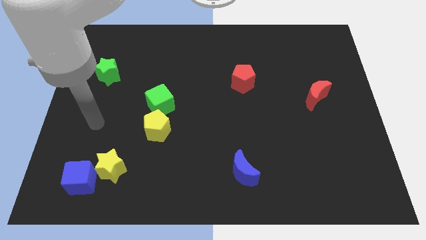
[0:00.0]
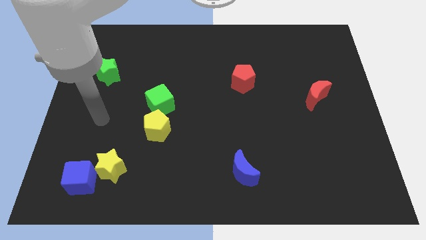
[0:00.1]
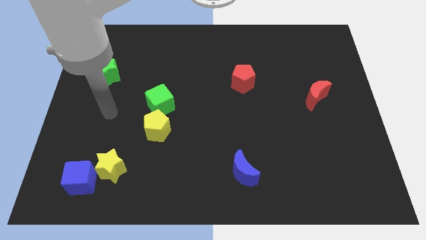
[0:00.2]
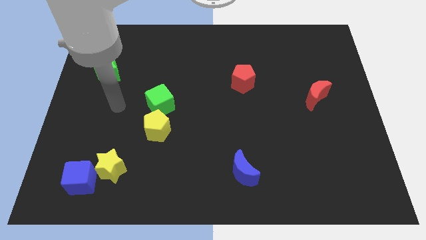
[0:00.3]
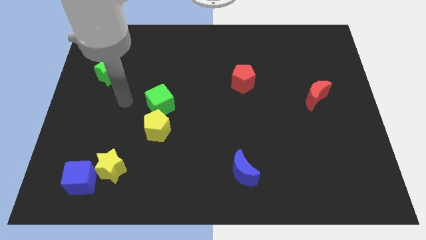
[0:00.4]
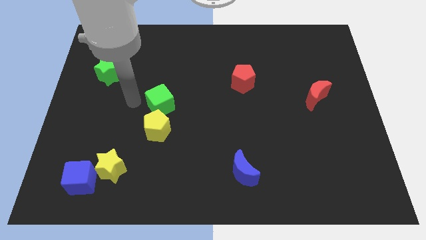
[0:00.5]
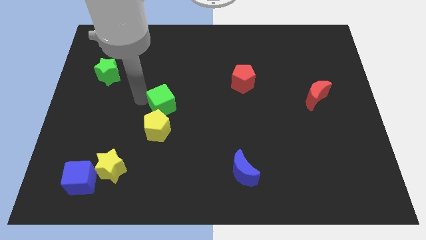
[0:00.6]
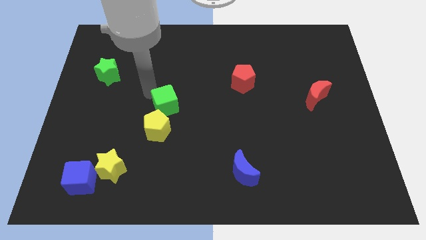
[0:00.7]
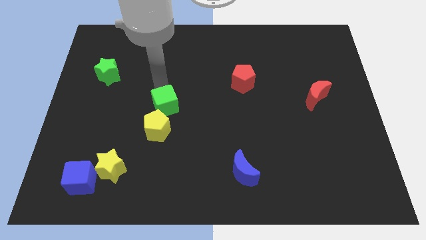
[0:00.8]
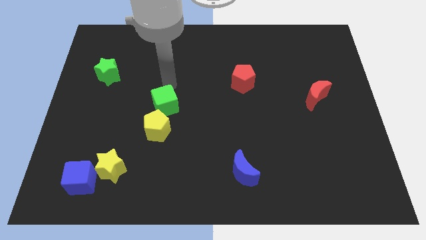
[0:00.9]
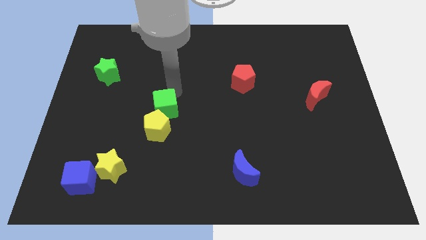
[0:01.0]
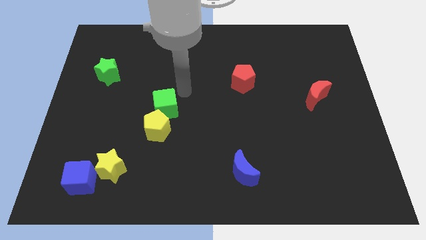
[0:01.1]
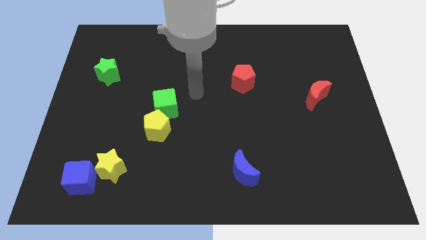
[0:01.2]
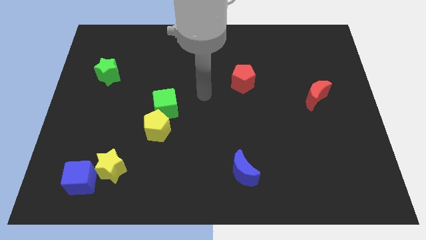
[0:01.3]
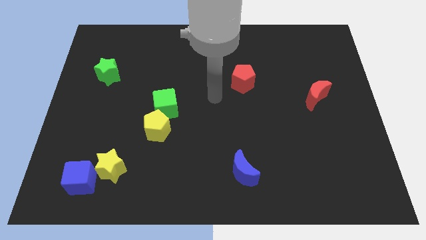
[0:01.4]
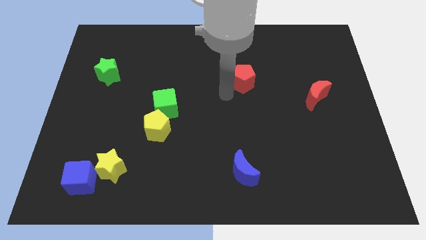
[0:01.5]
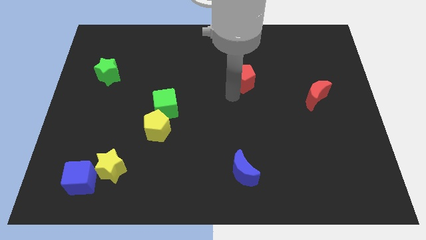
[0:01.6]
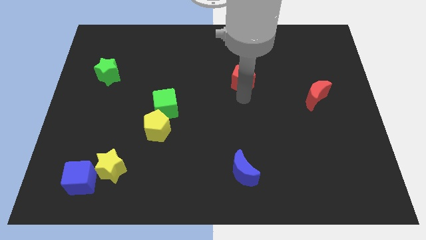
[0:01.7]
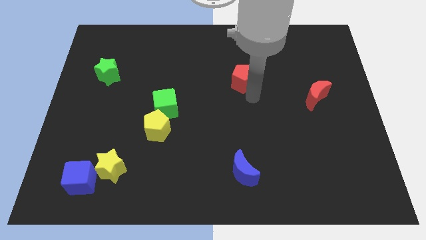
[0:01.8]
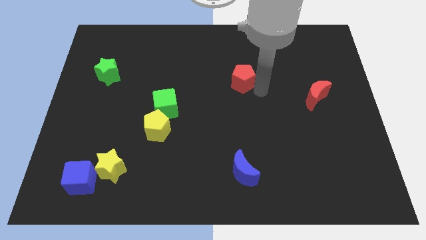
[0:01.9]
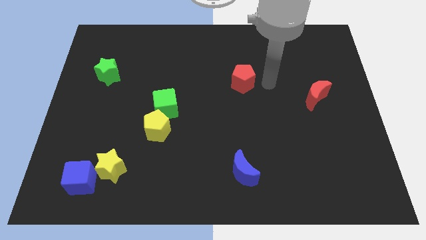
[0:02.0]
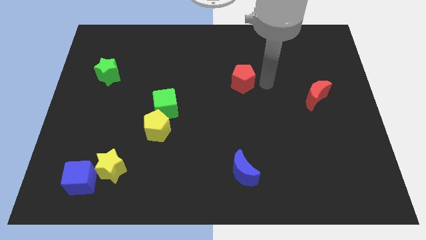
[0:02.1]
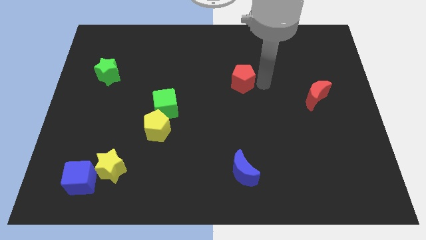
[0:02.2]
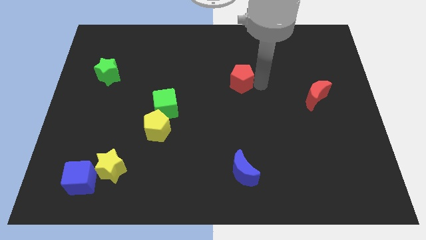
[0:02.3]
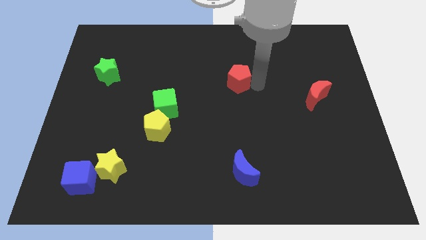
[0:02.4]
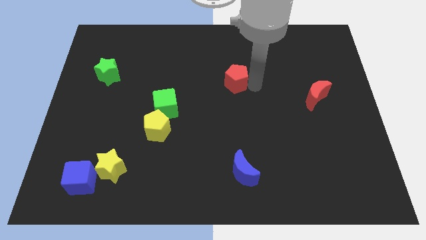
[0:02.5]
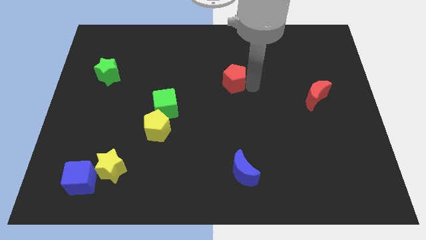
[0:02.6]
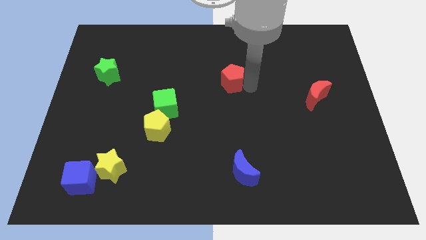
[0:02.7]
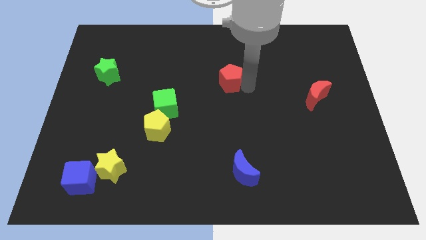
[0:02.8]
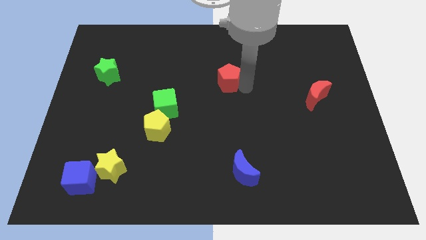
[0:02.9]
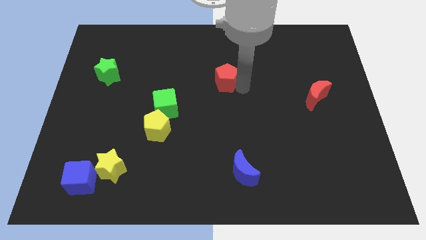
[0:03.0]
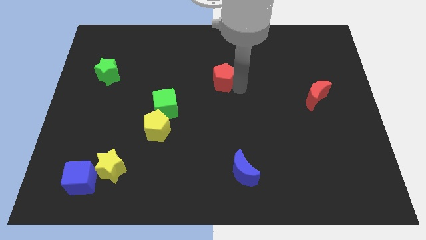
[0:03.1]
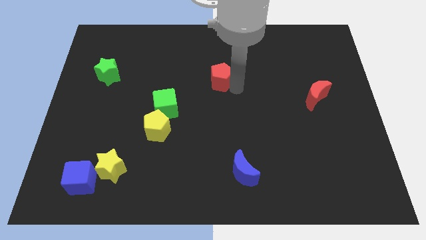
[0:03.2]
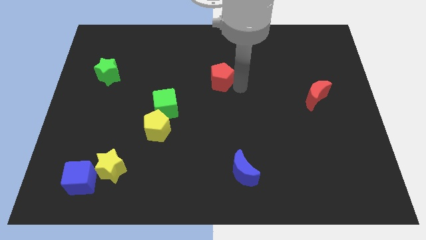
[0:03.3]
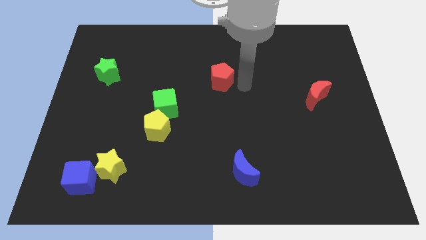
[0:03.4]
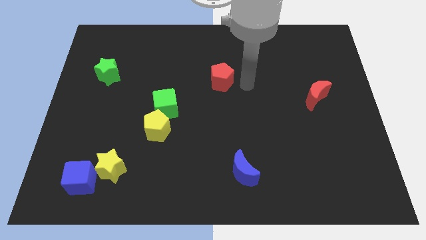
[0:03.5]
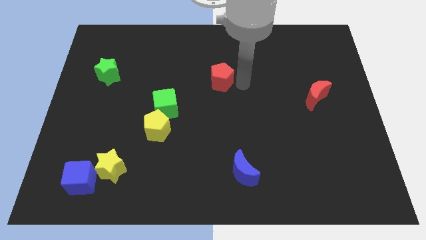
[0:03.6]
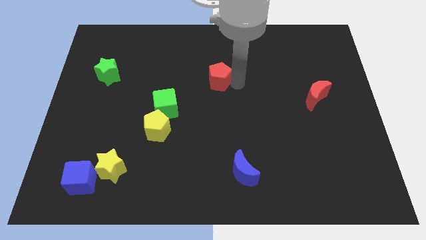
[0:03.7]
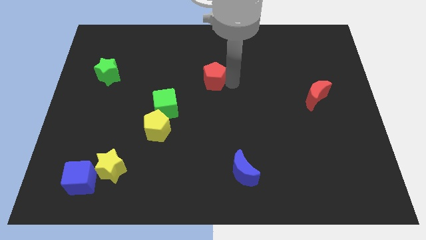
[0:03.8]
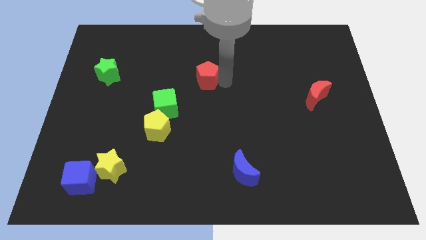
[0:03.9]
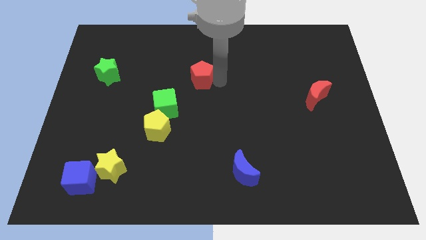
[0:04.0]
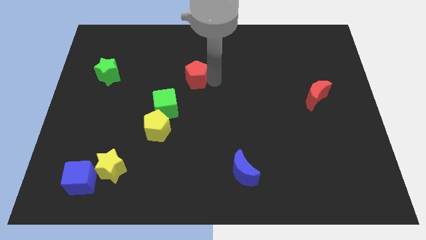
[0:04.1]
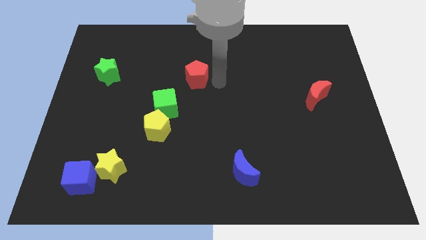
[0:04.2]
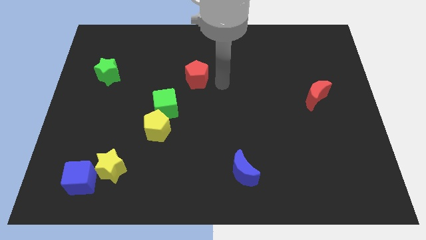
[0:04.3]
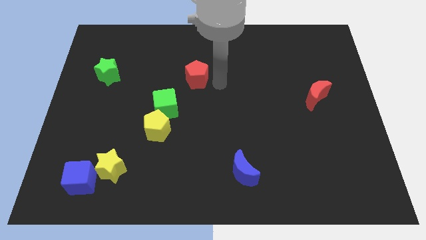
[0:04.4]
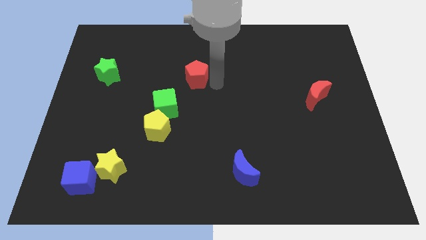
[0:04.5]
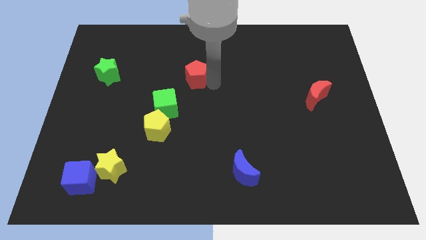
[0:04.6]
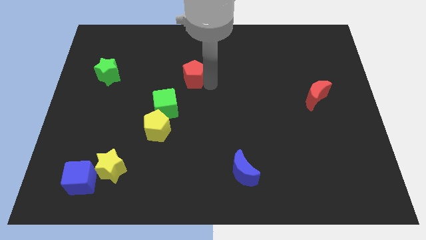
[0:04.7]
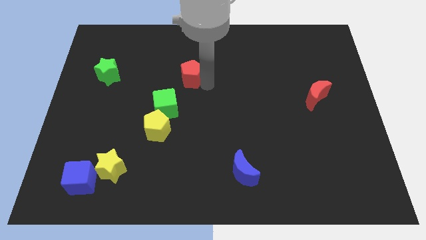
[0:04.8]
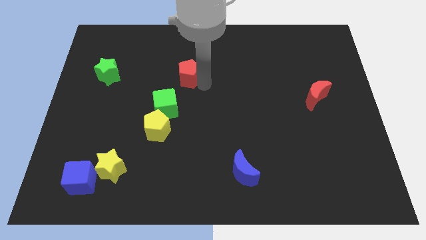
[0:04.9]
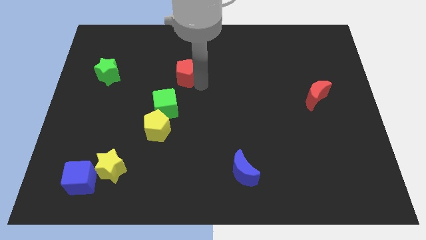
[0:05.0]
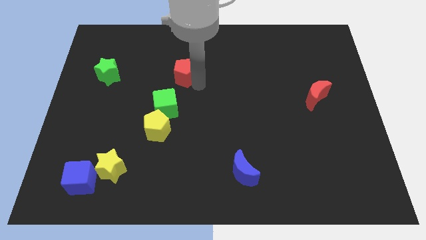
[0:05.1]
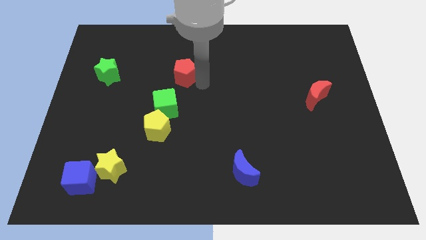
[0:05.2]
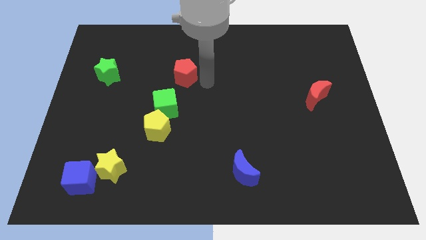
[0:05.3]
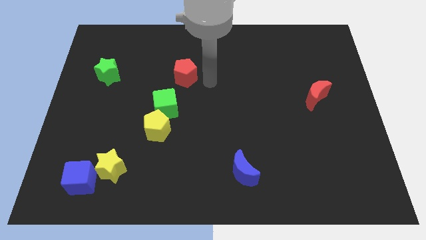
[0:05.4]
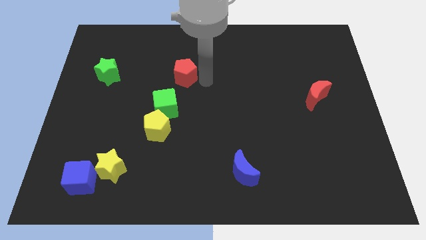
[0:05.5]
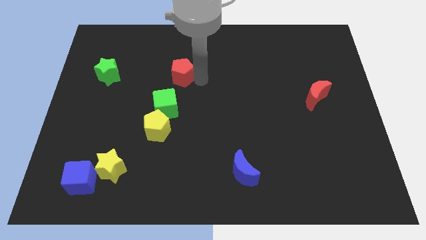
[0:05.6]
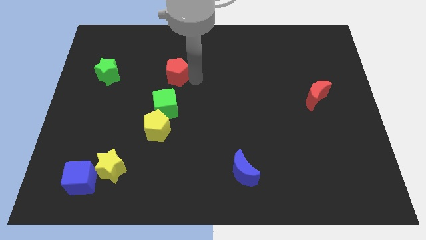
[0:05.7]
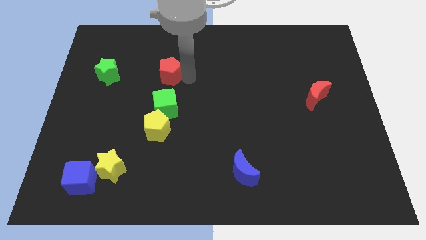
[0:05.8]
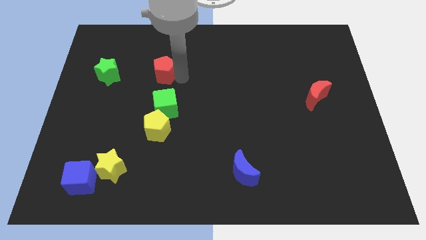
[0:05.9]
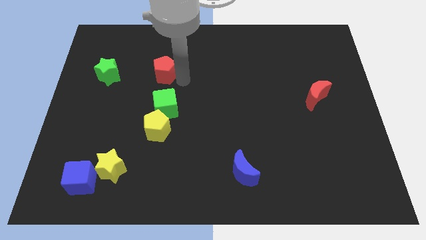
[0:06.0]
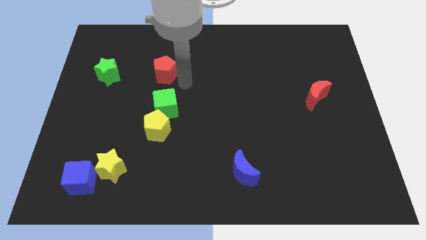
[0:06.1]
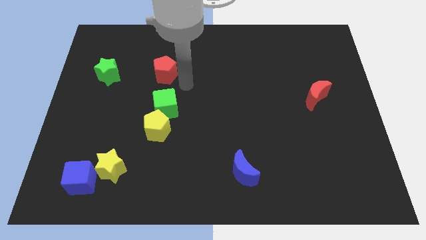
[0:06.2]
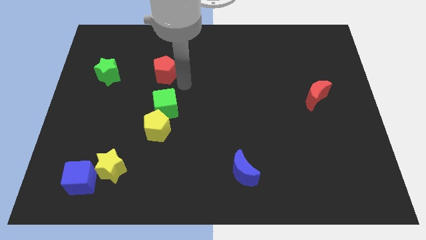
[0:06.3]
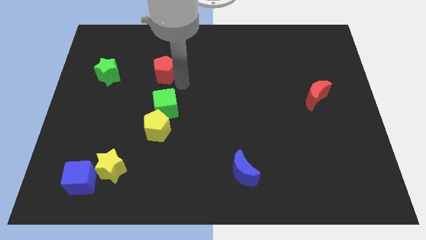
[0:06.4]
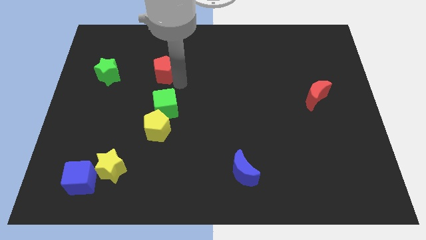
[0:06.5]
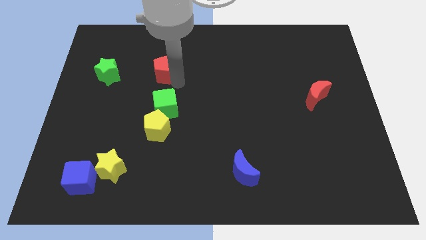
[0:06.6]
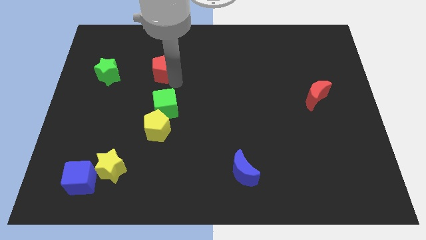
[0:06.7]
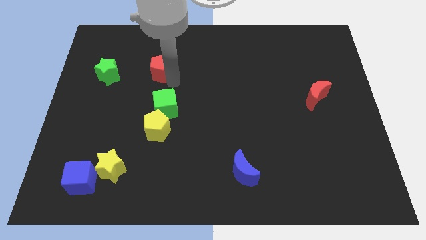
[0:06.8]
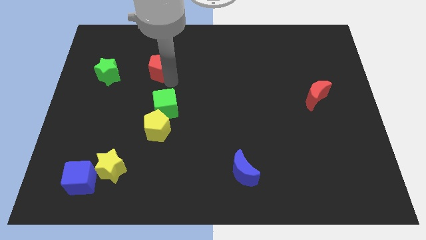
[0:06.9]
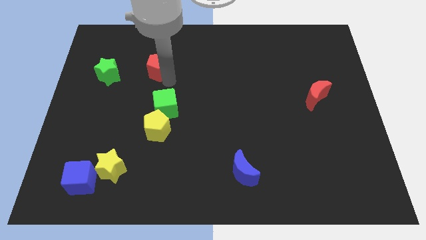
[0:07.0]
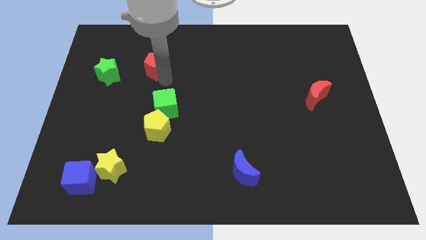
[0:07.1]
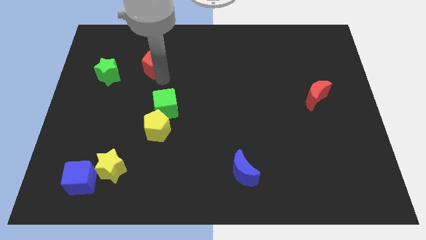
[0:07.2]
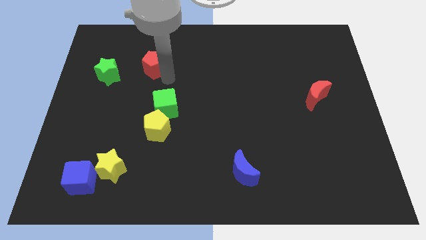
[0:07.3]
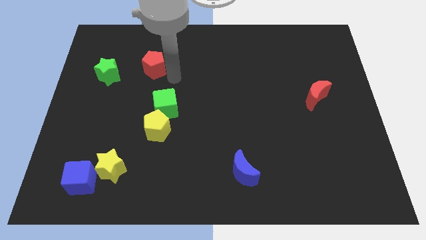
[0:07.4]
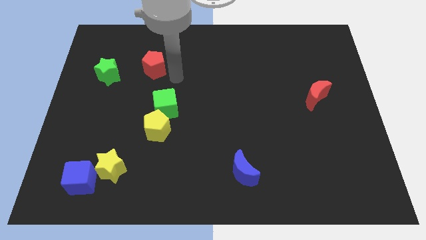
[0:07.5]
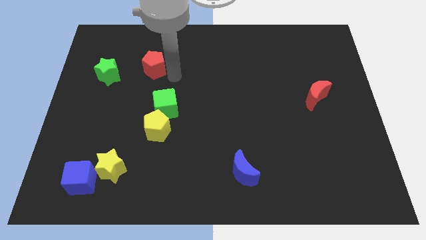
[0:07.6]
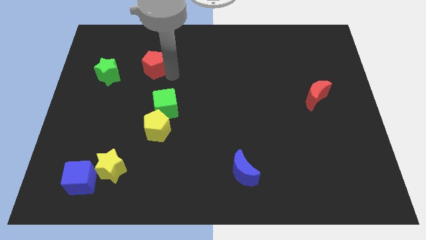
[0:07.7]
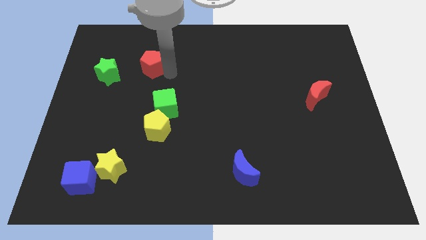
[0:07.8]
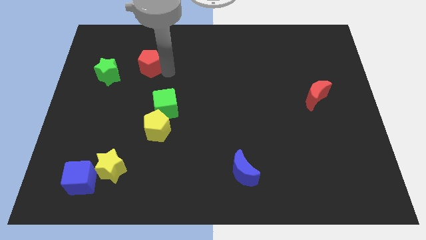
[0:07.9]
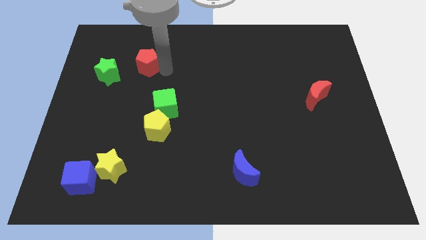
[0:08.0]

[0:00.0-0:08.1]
slide the red pentagon to the top right of the green star
